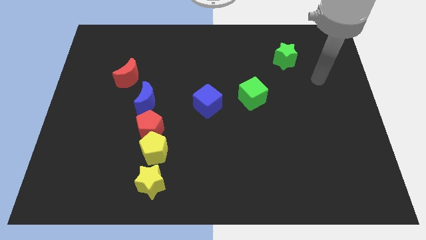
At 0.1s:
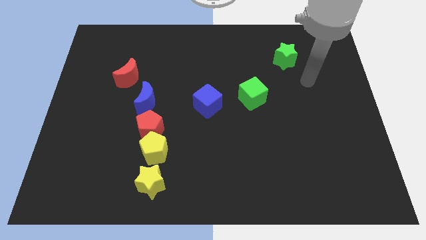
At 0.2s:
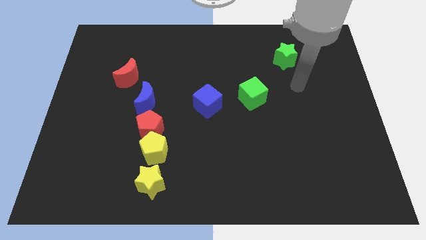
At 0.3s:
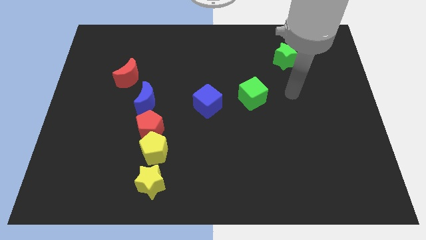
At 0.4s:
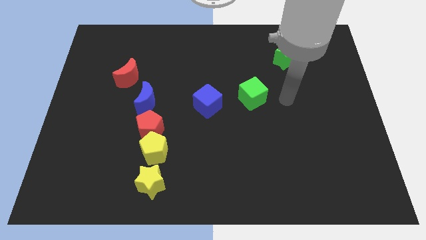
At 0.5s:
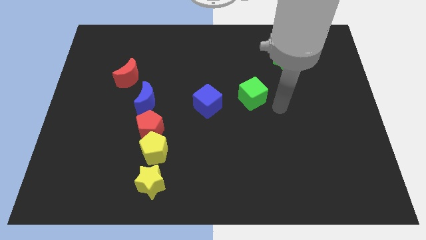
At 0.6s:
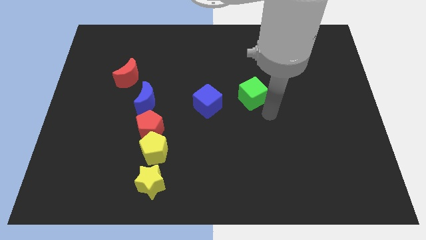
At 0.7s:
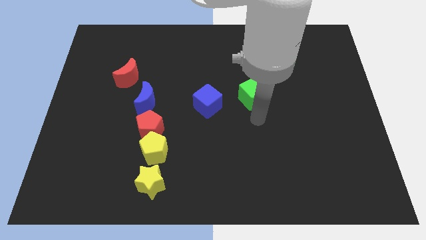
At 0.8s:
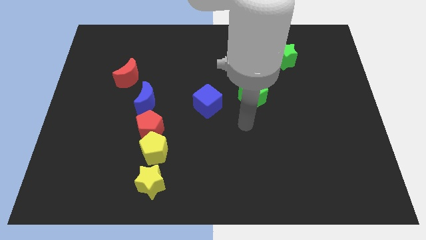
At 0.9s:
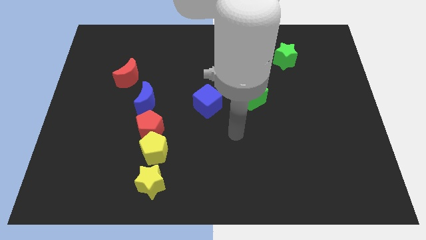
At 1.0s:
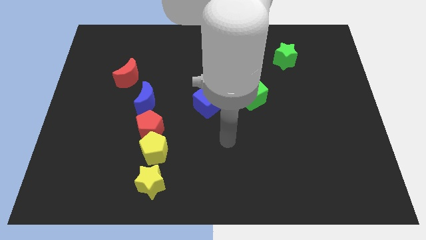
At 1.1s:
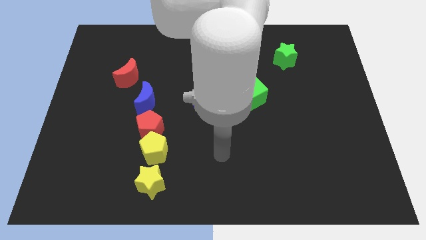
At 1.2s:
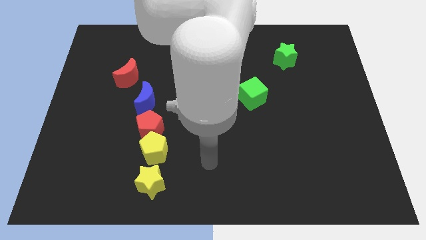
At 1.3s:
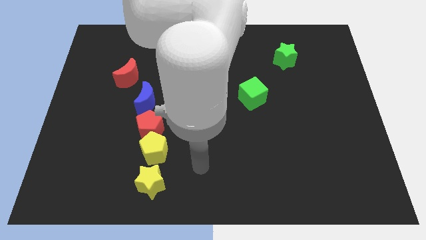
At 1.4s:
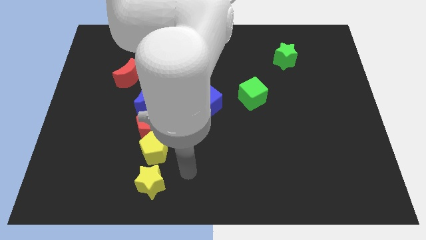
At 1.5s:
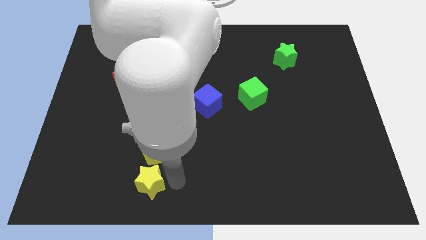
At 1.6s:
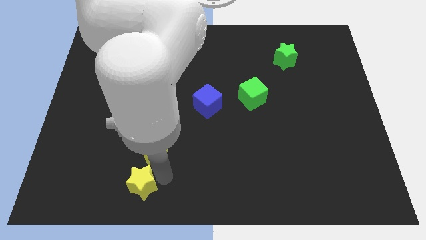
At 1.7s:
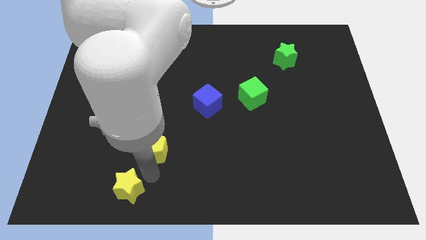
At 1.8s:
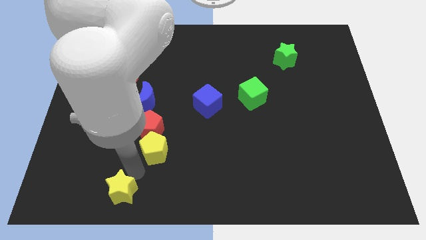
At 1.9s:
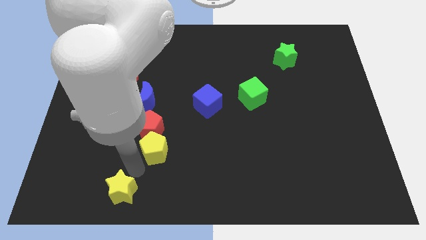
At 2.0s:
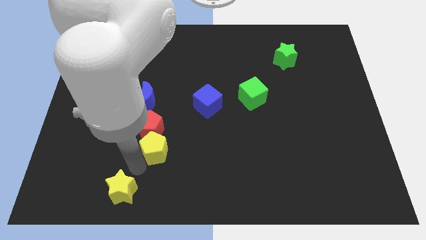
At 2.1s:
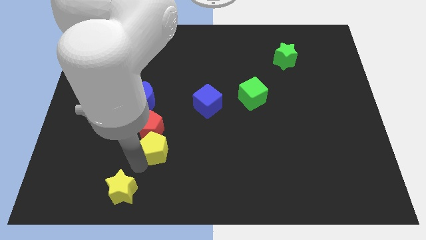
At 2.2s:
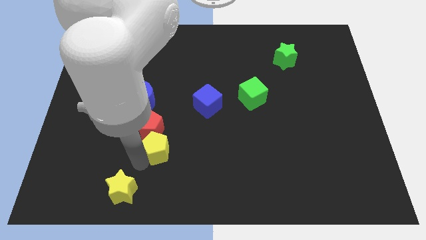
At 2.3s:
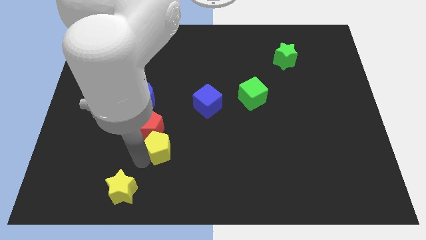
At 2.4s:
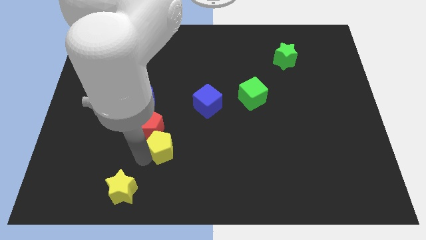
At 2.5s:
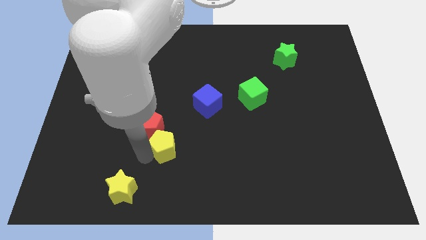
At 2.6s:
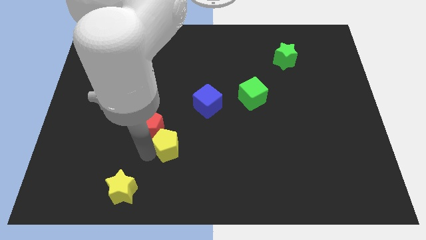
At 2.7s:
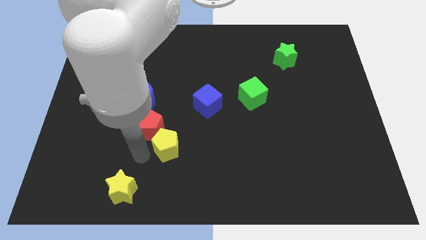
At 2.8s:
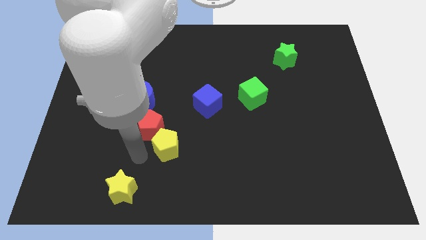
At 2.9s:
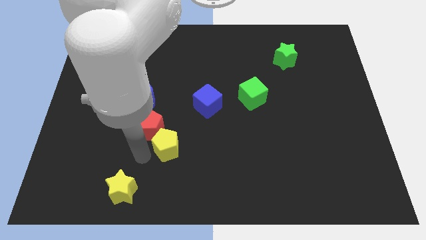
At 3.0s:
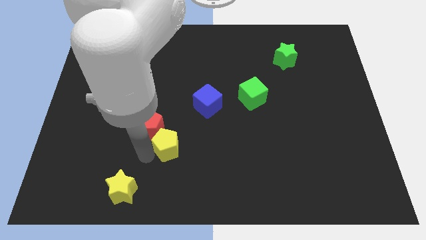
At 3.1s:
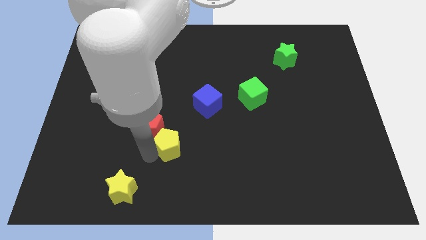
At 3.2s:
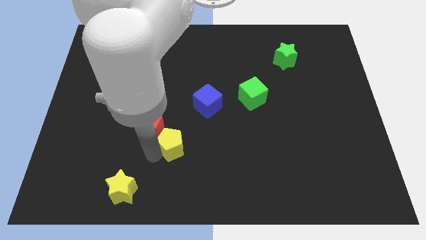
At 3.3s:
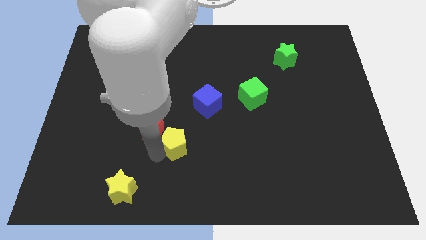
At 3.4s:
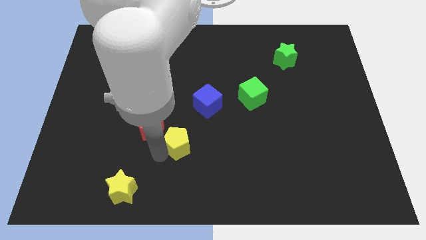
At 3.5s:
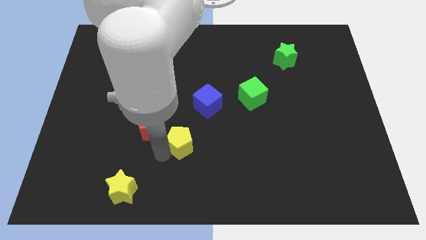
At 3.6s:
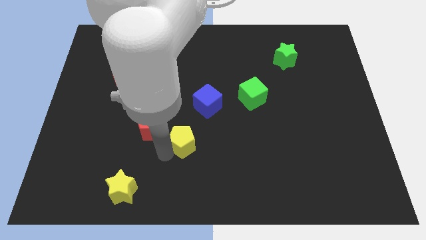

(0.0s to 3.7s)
move the yellow pentagon away from the red pentagon and yellow star

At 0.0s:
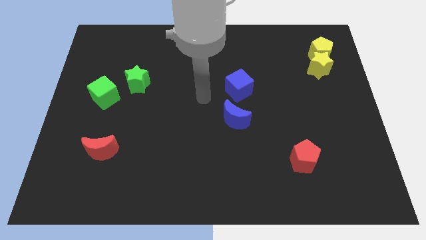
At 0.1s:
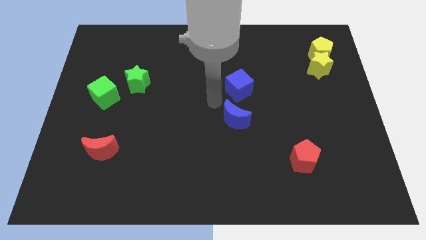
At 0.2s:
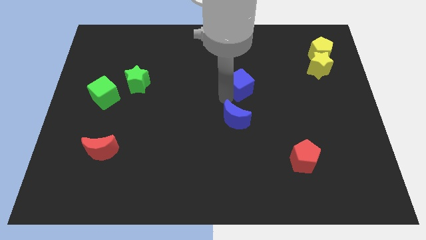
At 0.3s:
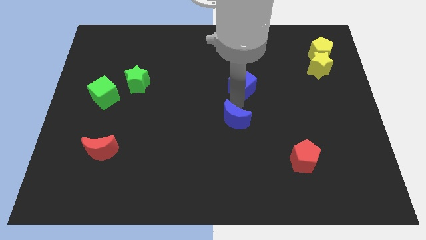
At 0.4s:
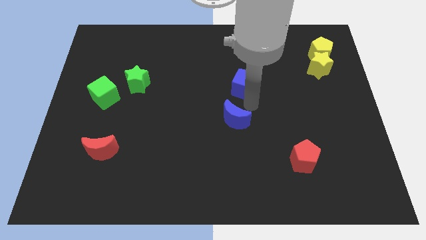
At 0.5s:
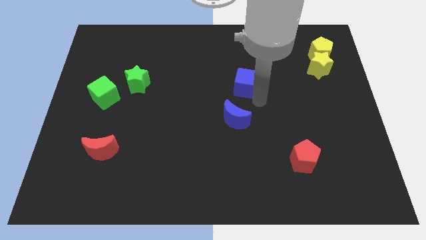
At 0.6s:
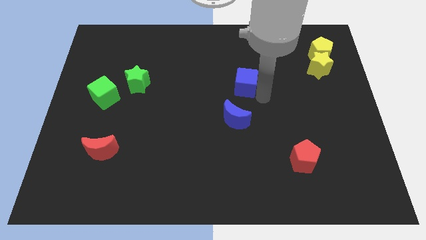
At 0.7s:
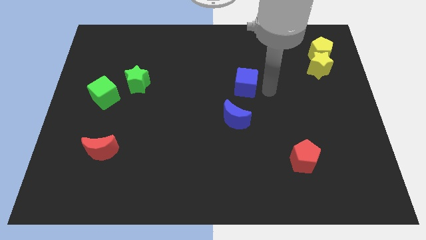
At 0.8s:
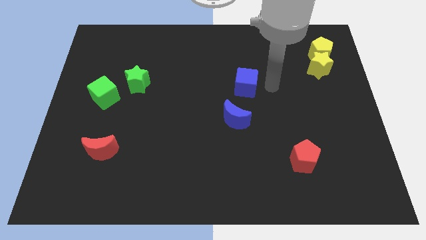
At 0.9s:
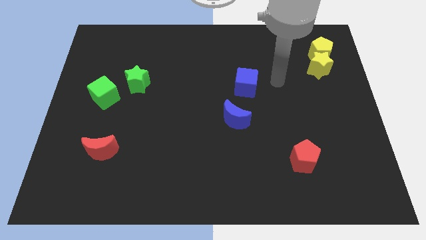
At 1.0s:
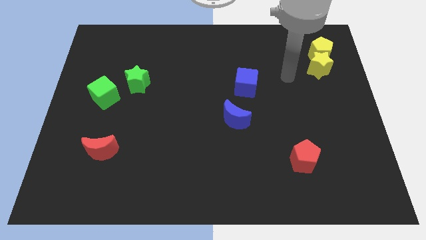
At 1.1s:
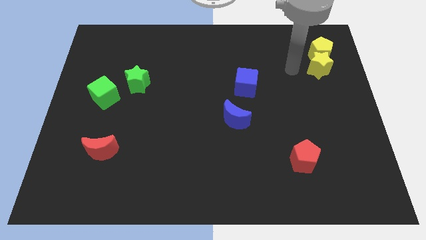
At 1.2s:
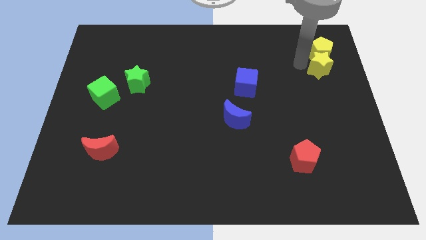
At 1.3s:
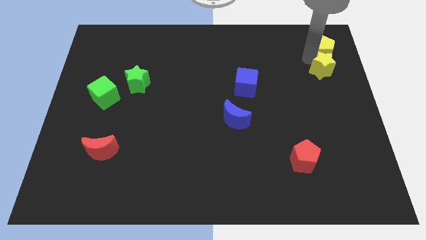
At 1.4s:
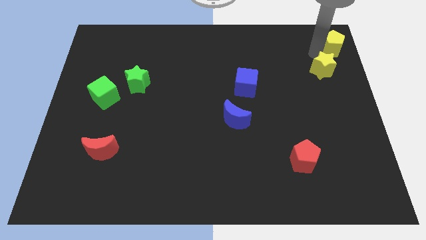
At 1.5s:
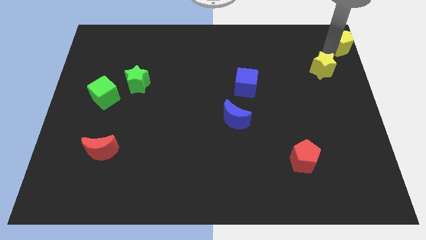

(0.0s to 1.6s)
pull the yellow star apart from the yellow pentagon

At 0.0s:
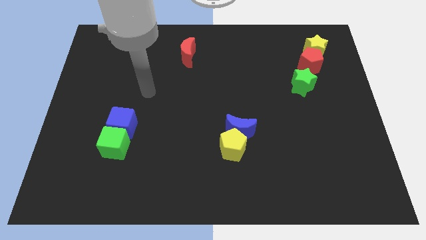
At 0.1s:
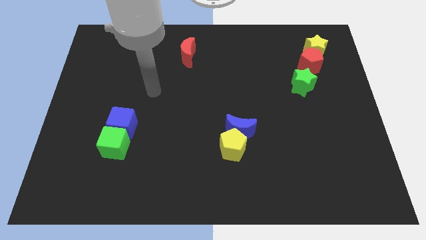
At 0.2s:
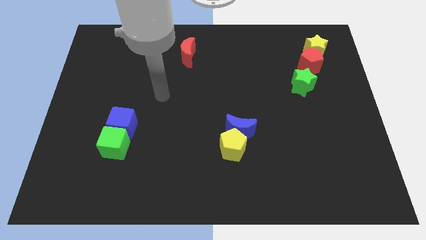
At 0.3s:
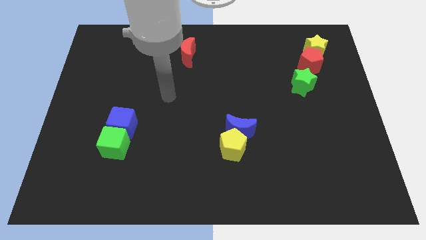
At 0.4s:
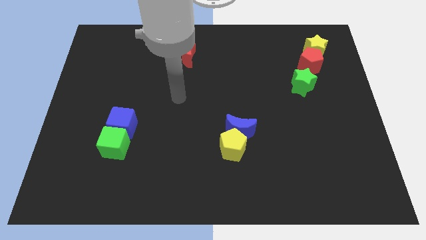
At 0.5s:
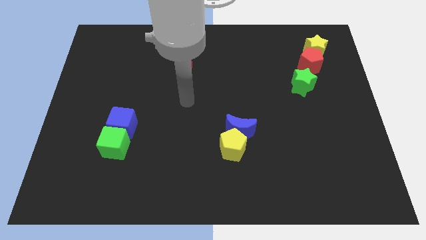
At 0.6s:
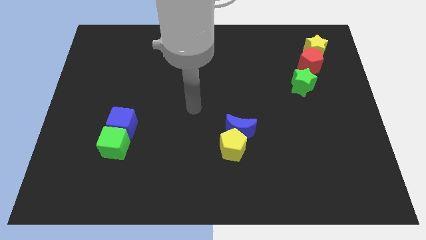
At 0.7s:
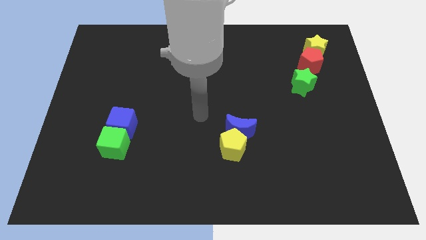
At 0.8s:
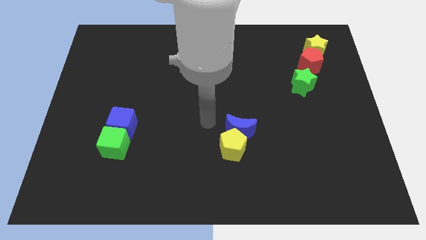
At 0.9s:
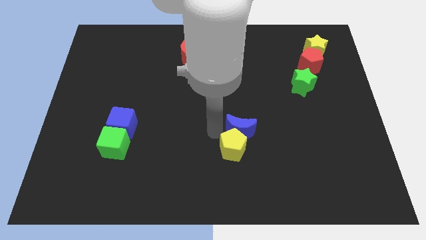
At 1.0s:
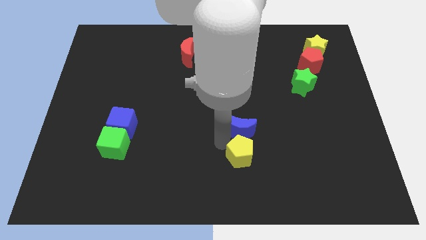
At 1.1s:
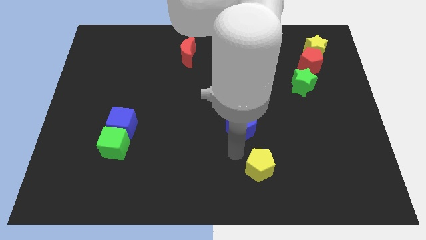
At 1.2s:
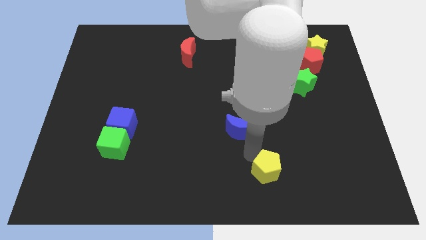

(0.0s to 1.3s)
separate the blue moon from the yellow pentagon

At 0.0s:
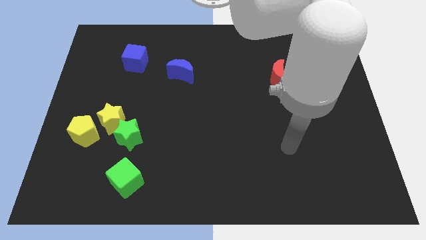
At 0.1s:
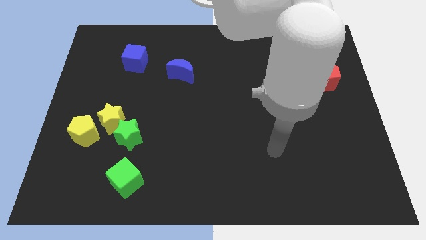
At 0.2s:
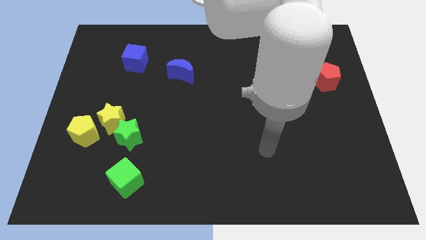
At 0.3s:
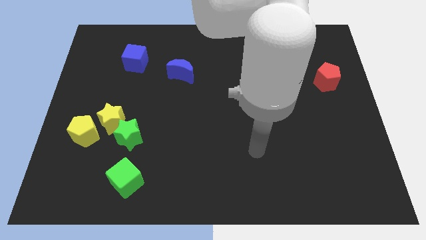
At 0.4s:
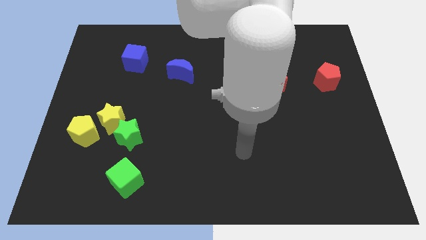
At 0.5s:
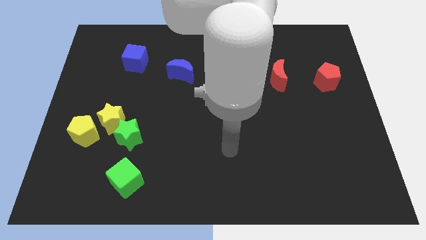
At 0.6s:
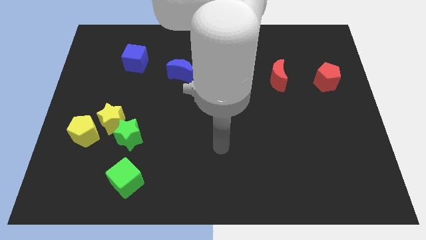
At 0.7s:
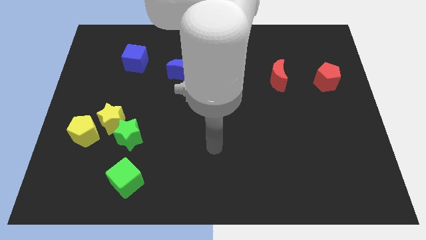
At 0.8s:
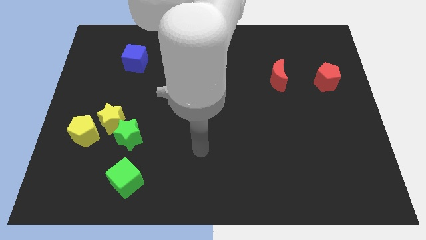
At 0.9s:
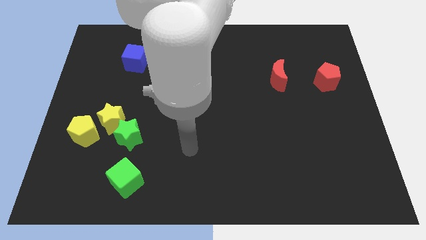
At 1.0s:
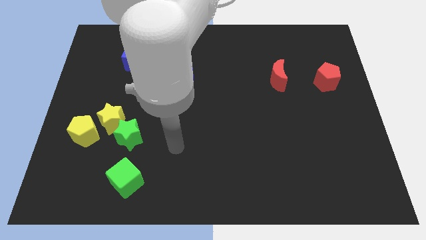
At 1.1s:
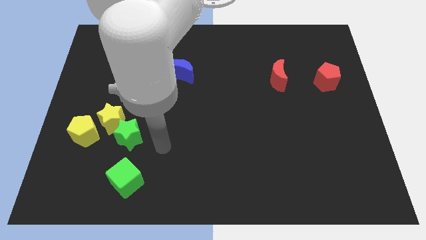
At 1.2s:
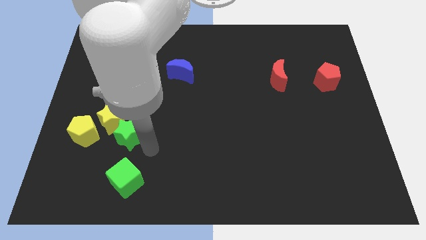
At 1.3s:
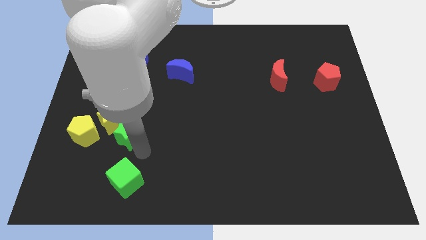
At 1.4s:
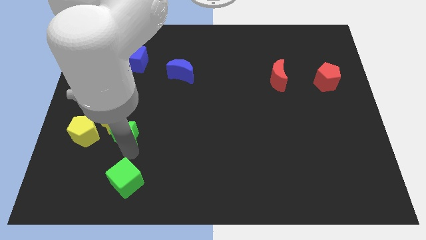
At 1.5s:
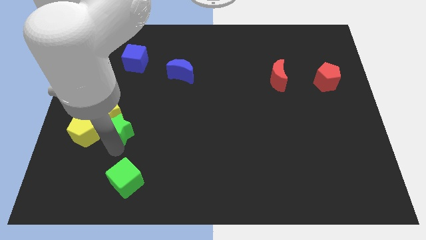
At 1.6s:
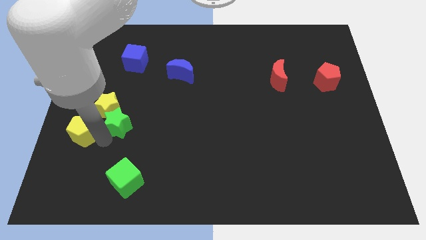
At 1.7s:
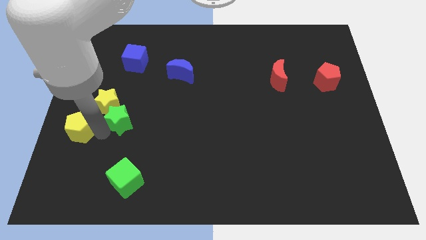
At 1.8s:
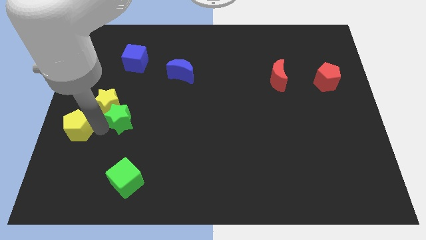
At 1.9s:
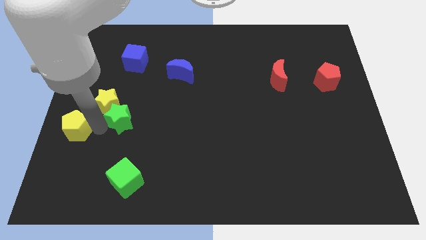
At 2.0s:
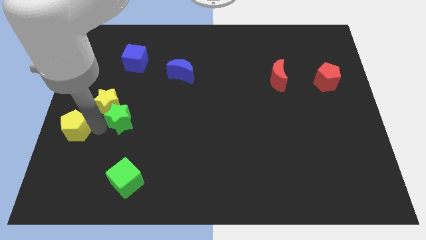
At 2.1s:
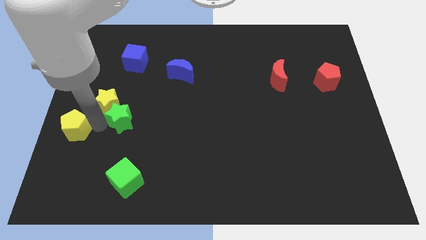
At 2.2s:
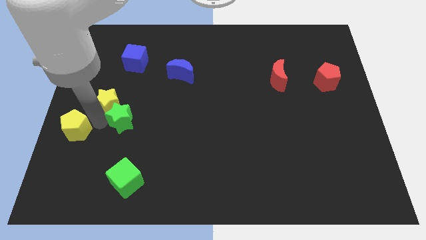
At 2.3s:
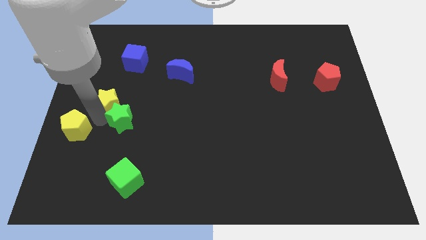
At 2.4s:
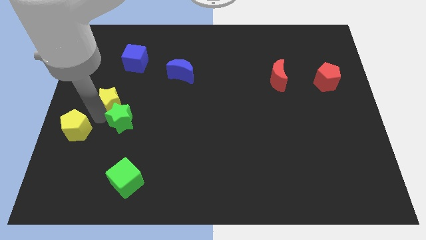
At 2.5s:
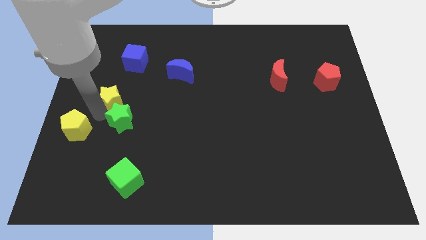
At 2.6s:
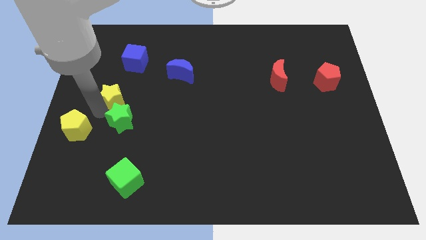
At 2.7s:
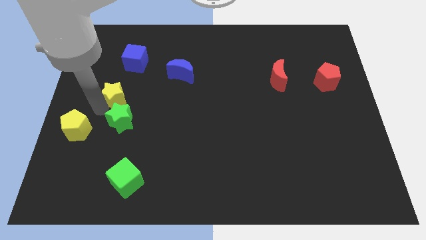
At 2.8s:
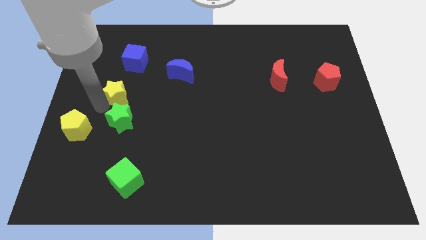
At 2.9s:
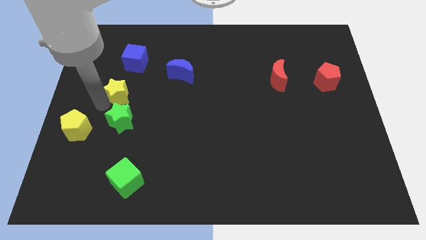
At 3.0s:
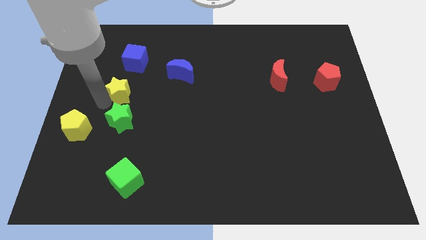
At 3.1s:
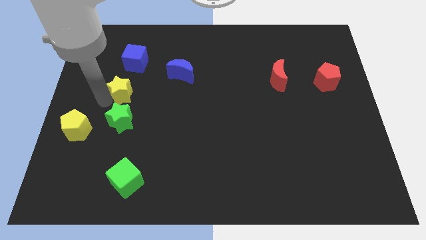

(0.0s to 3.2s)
pull the yellow star apart from the yellow pentagon and green star
